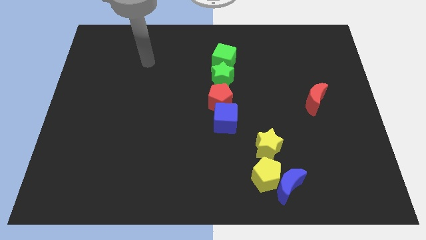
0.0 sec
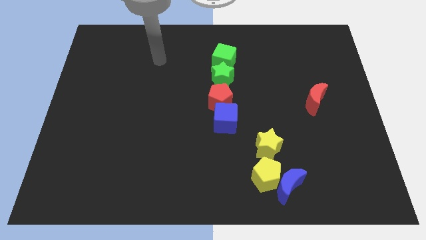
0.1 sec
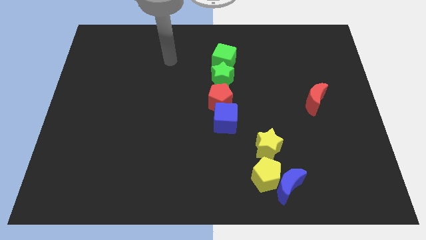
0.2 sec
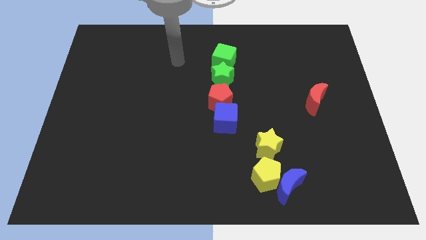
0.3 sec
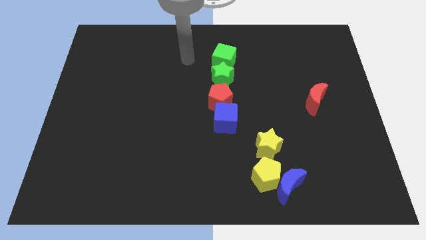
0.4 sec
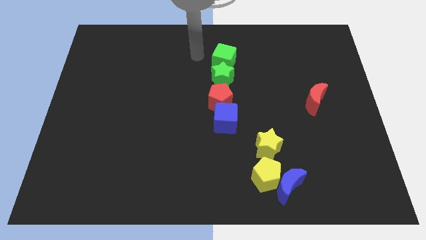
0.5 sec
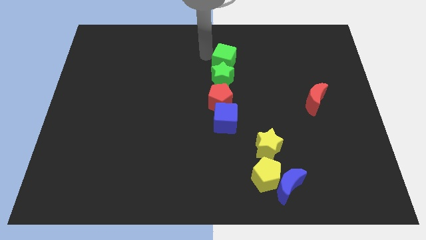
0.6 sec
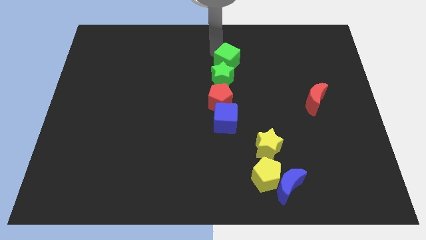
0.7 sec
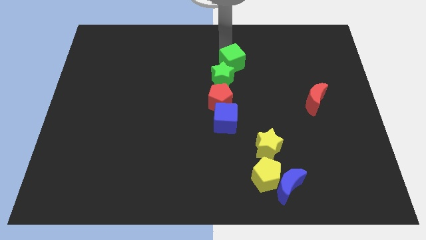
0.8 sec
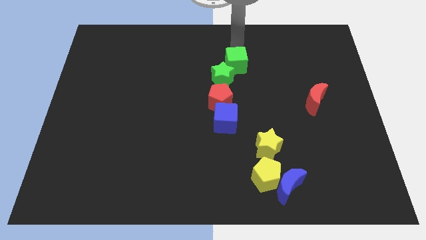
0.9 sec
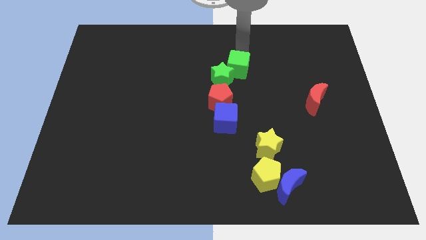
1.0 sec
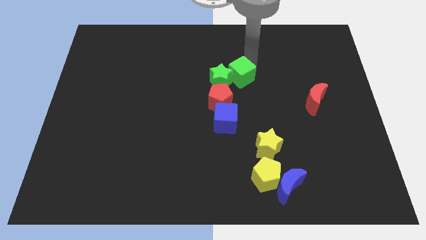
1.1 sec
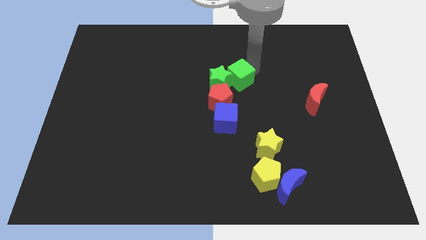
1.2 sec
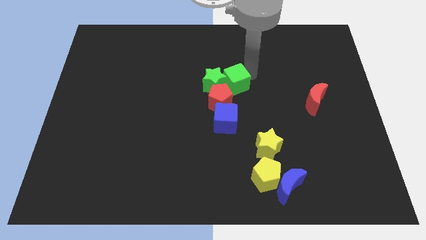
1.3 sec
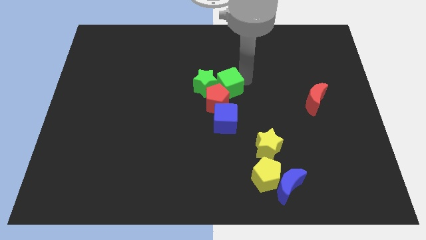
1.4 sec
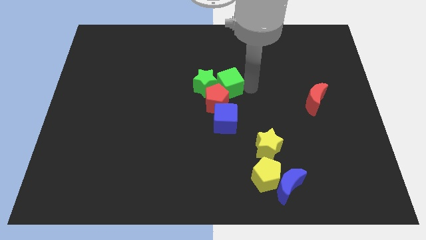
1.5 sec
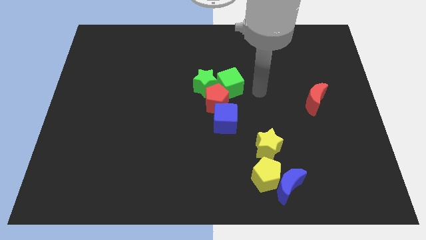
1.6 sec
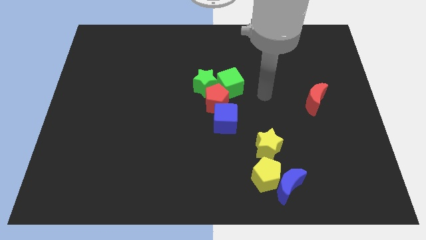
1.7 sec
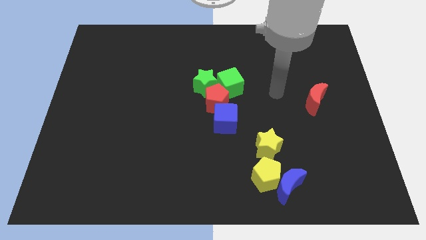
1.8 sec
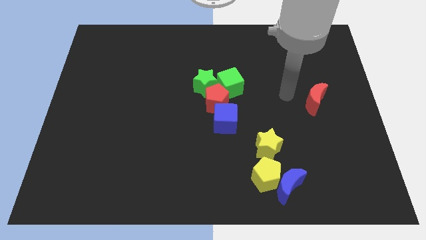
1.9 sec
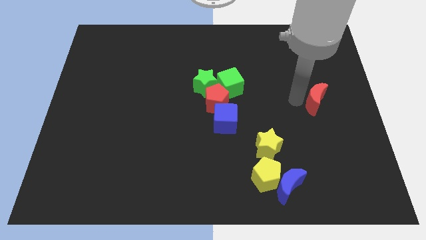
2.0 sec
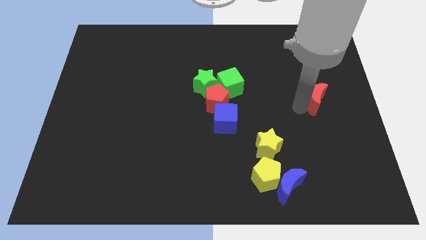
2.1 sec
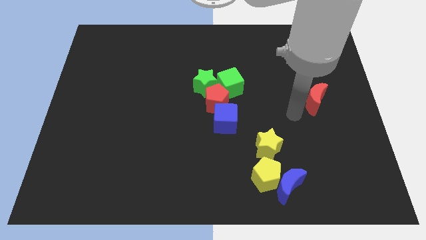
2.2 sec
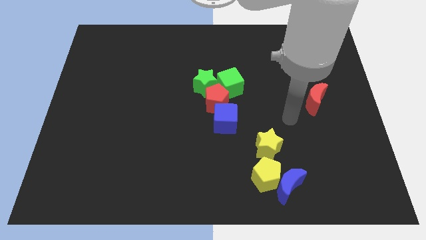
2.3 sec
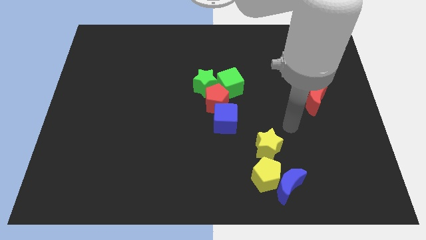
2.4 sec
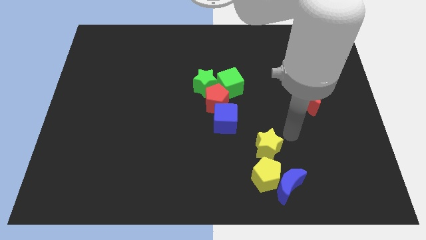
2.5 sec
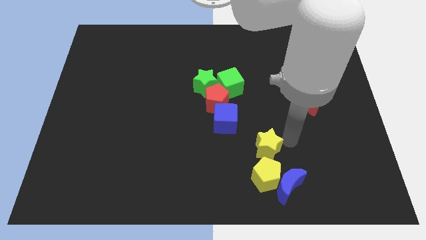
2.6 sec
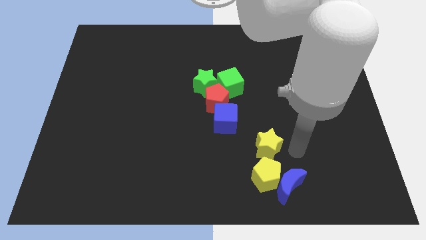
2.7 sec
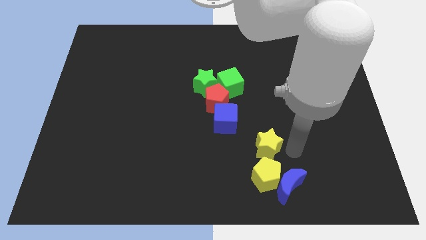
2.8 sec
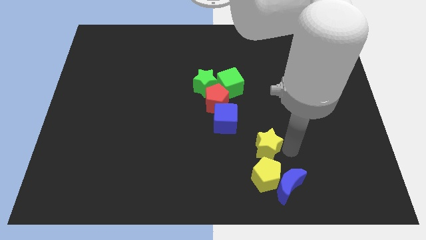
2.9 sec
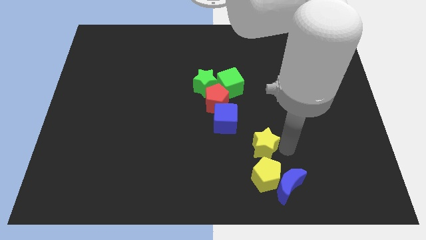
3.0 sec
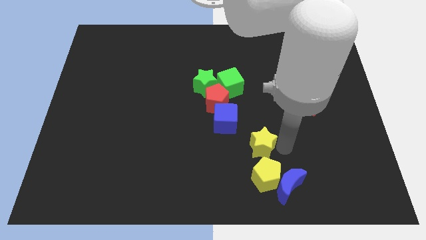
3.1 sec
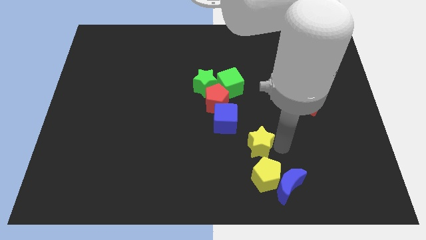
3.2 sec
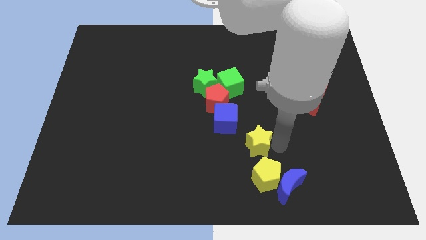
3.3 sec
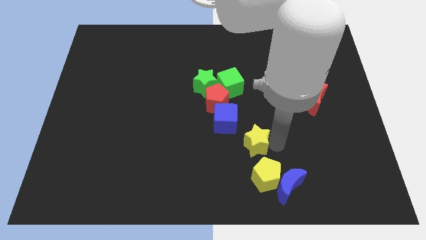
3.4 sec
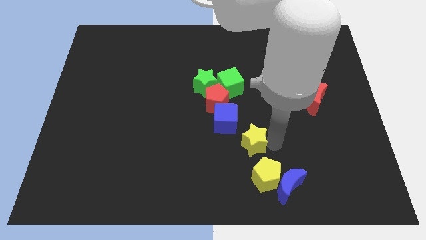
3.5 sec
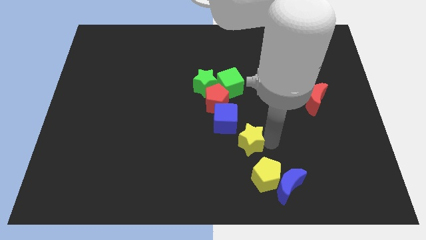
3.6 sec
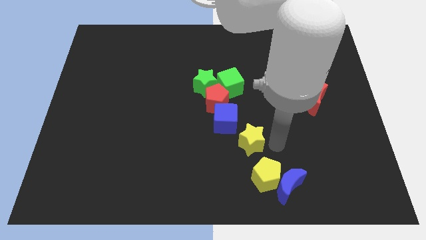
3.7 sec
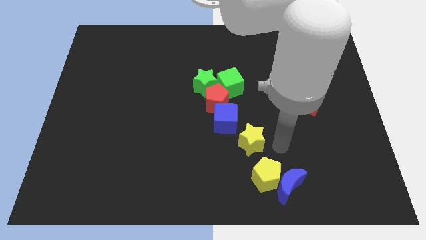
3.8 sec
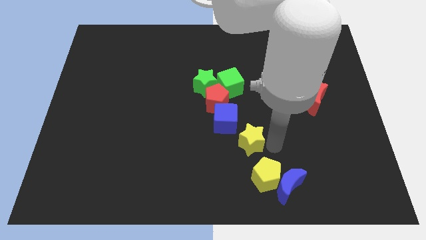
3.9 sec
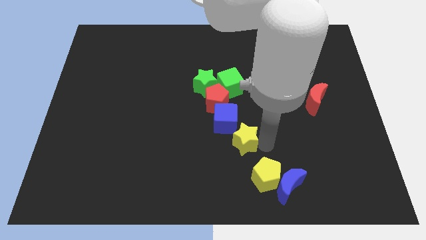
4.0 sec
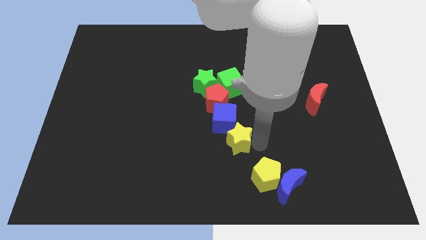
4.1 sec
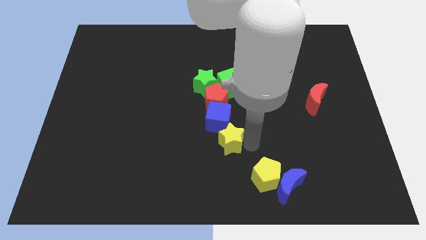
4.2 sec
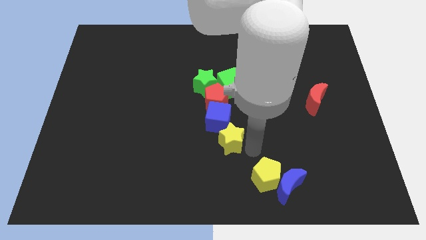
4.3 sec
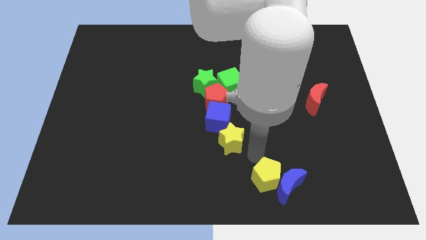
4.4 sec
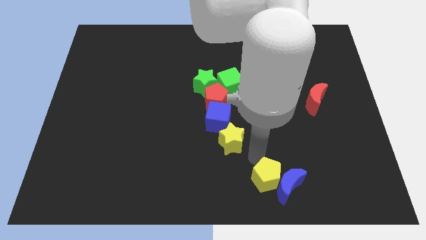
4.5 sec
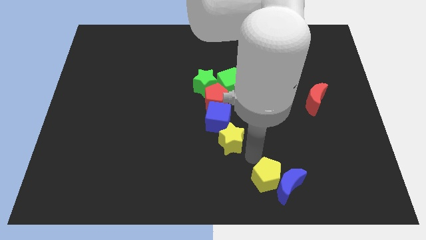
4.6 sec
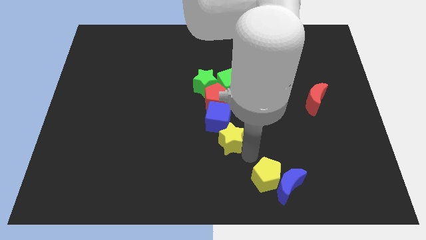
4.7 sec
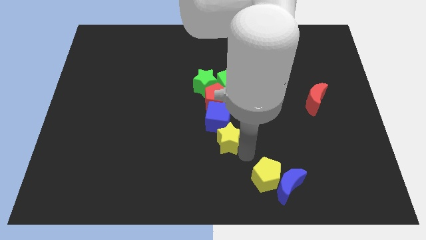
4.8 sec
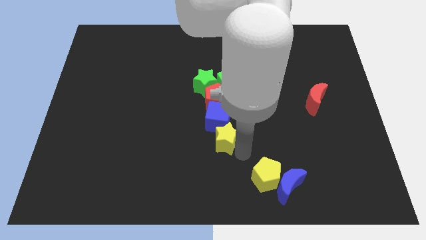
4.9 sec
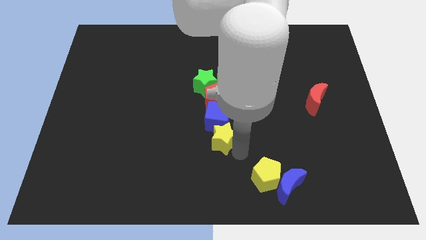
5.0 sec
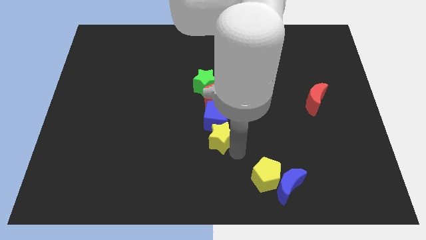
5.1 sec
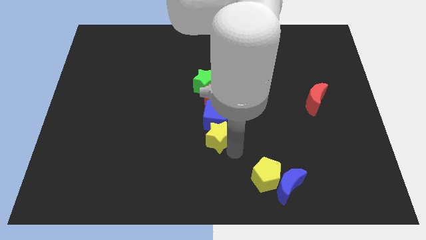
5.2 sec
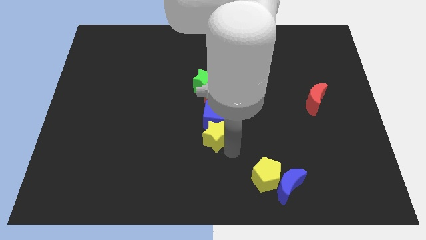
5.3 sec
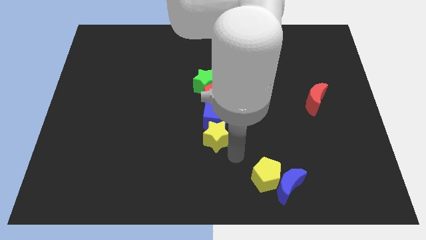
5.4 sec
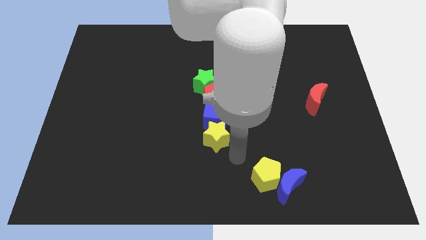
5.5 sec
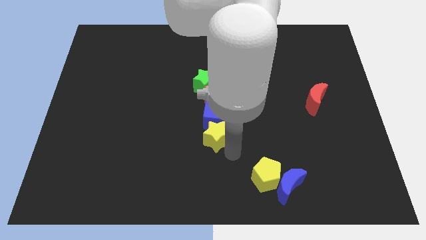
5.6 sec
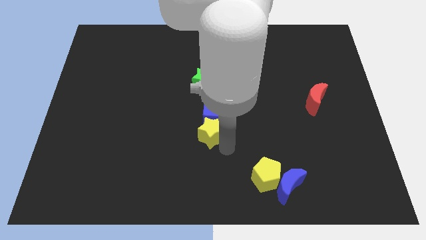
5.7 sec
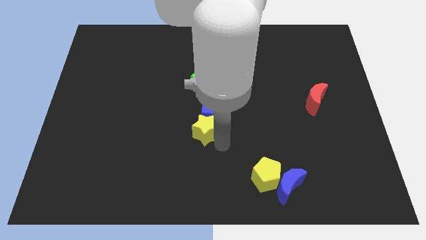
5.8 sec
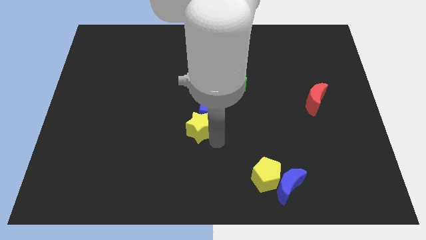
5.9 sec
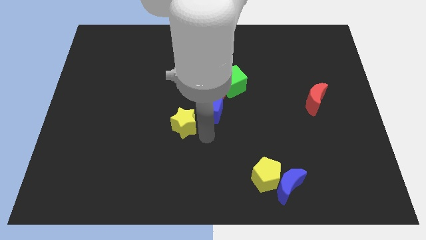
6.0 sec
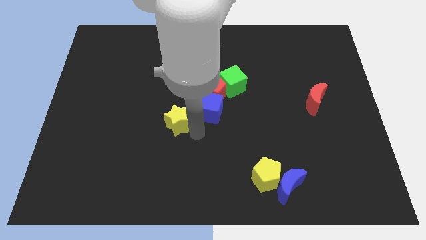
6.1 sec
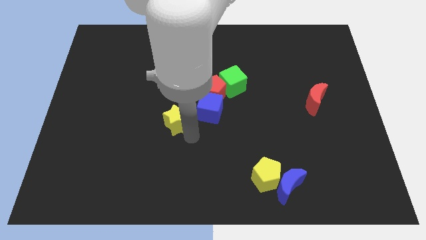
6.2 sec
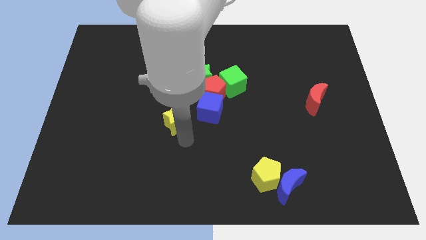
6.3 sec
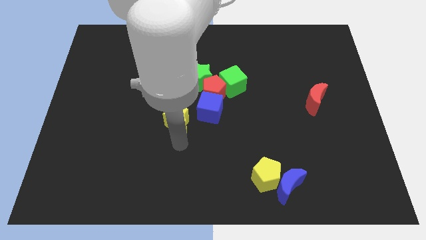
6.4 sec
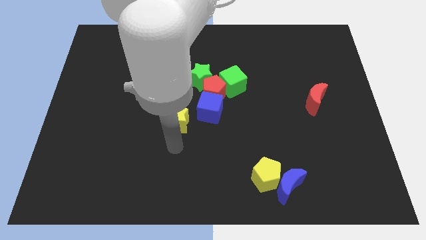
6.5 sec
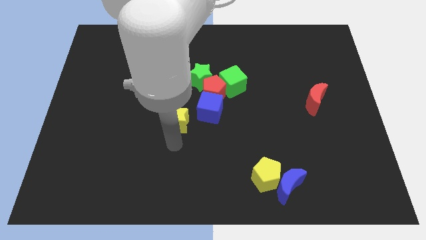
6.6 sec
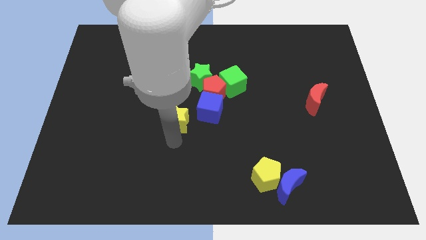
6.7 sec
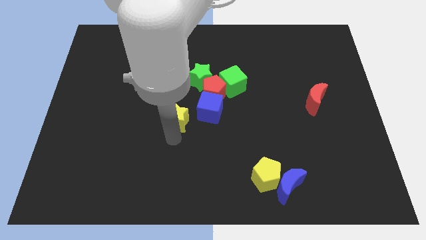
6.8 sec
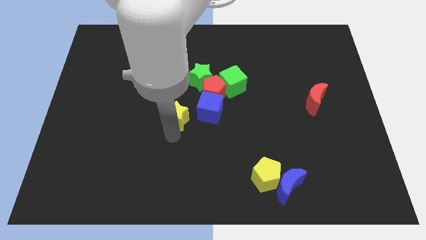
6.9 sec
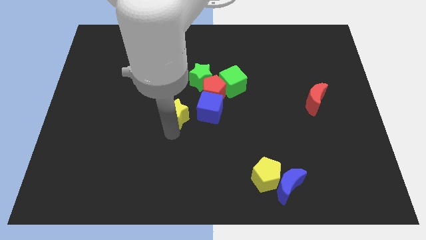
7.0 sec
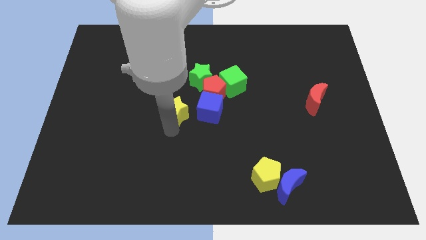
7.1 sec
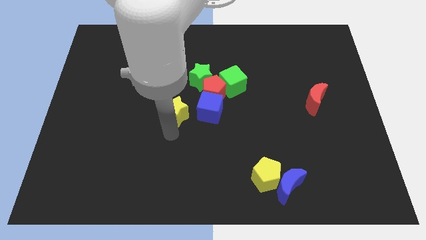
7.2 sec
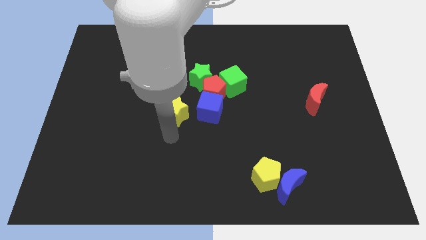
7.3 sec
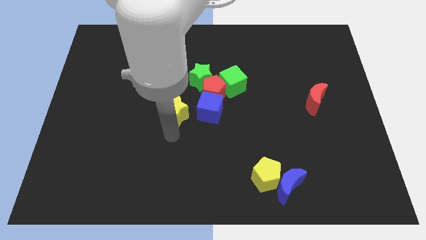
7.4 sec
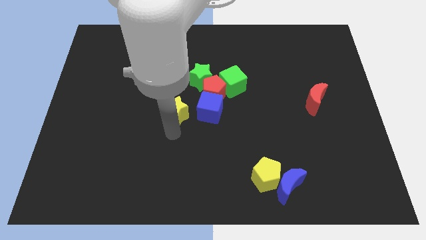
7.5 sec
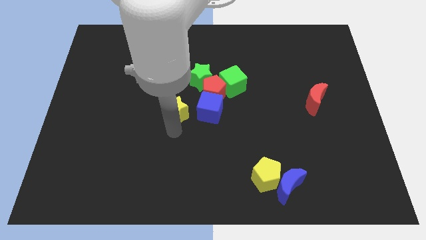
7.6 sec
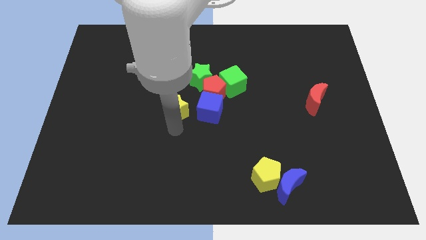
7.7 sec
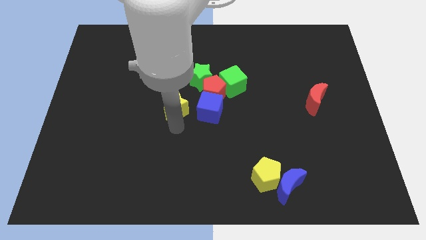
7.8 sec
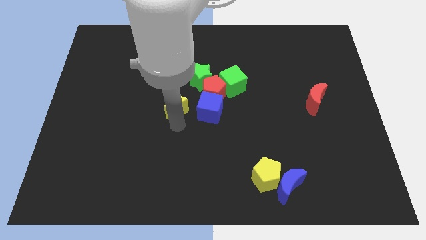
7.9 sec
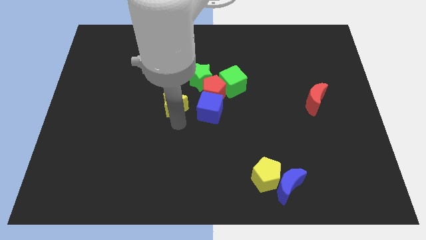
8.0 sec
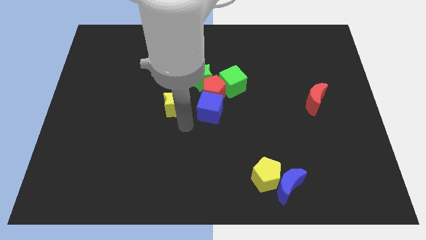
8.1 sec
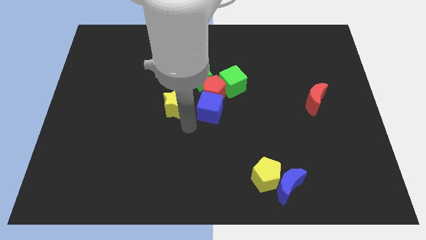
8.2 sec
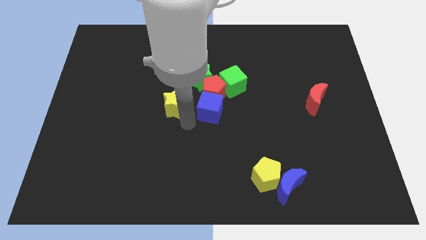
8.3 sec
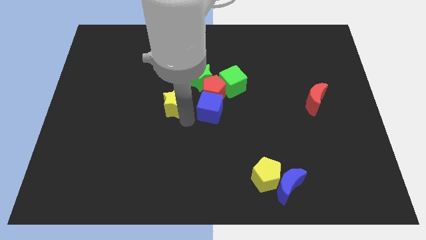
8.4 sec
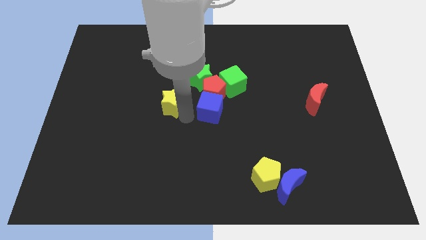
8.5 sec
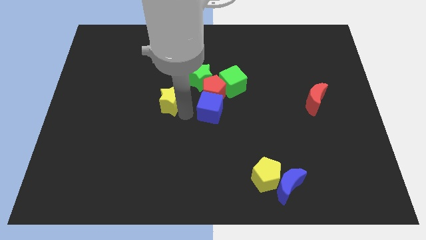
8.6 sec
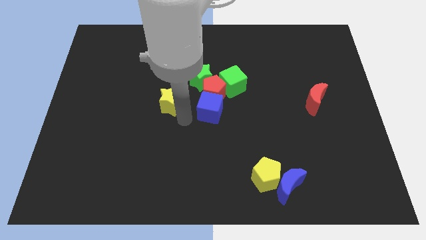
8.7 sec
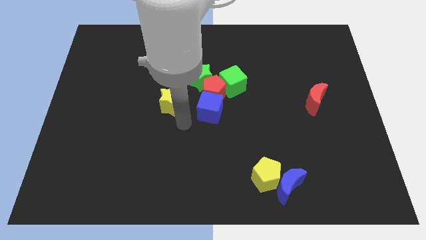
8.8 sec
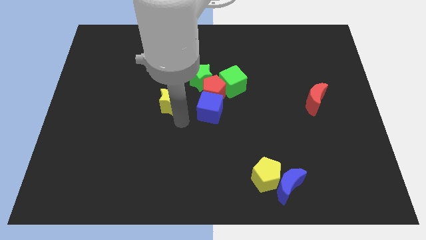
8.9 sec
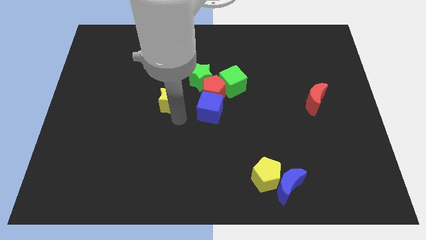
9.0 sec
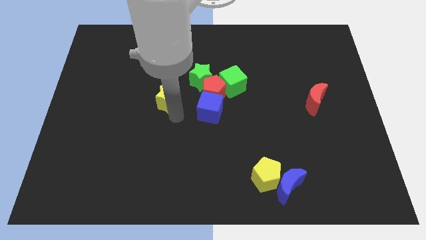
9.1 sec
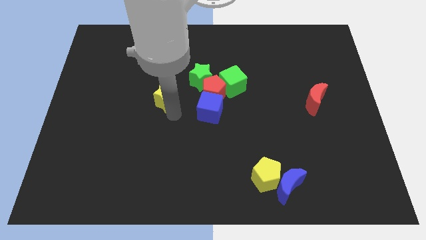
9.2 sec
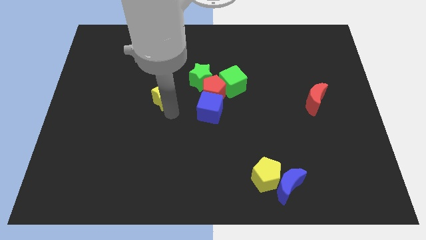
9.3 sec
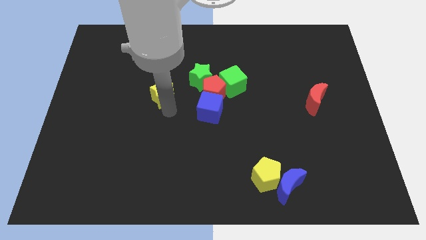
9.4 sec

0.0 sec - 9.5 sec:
put the yellow star left of the green star
